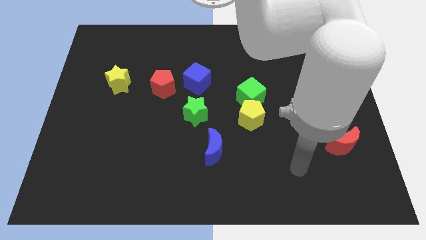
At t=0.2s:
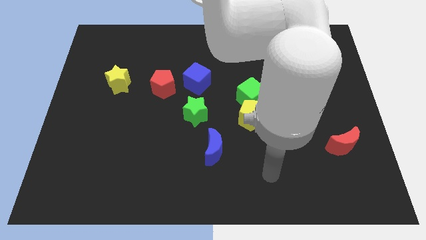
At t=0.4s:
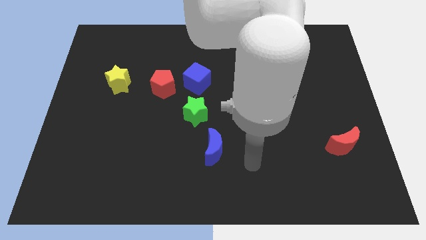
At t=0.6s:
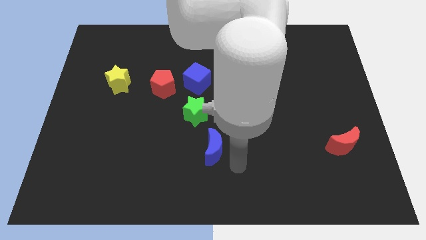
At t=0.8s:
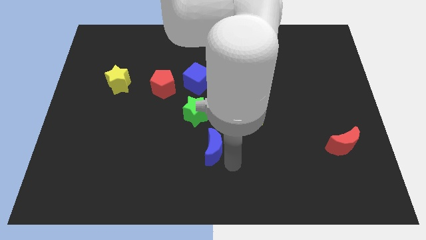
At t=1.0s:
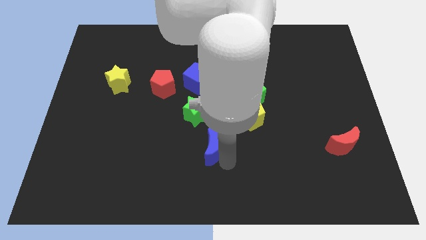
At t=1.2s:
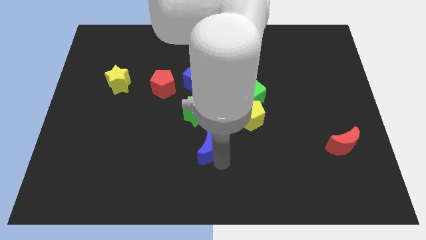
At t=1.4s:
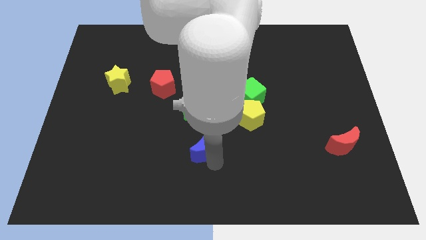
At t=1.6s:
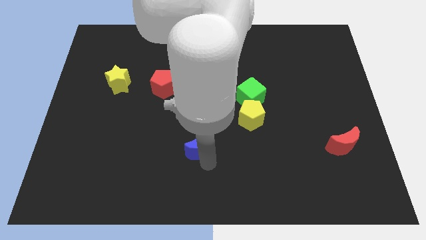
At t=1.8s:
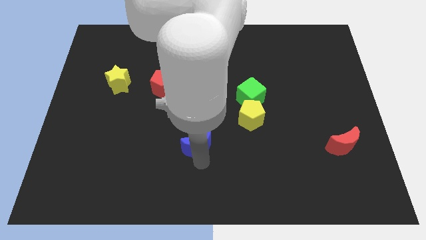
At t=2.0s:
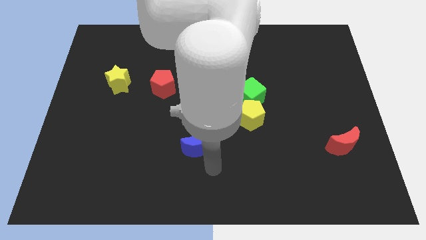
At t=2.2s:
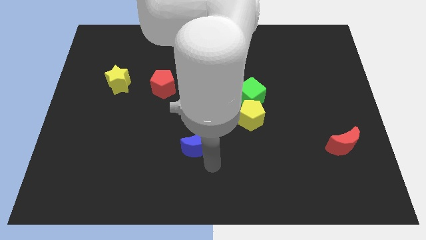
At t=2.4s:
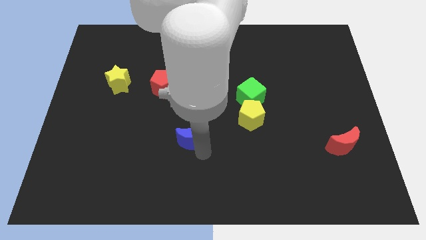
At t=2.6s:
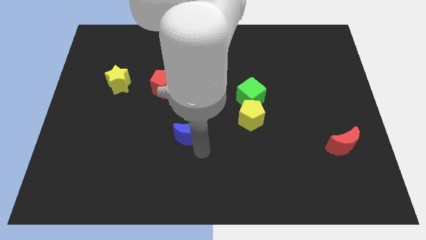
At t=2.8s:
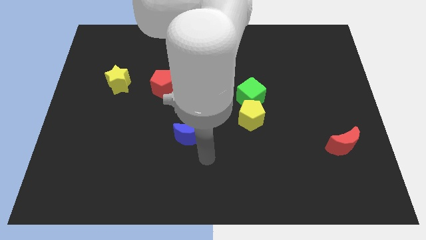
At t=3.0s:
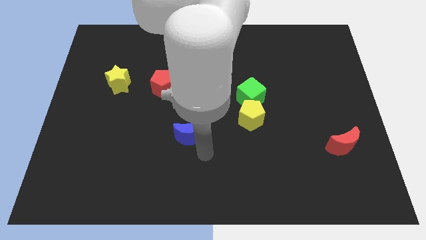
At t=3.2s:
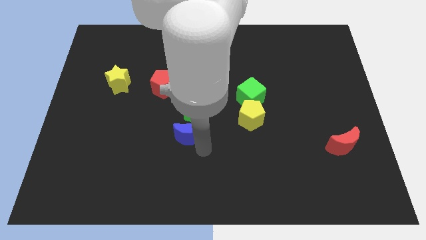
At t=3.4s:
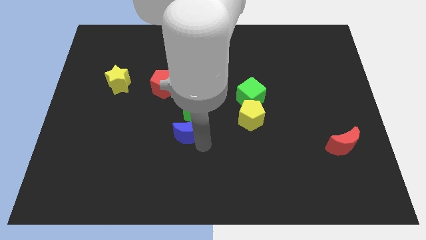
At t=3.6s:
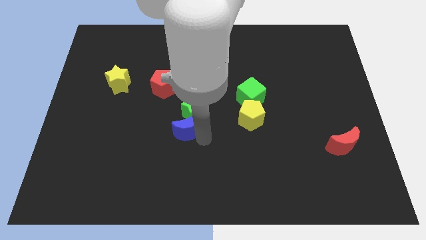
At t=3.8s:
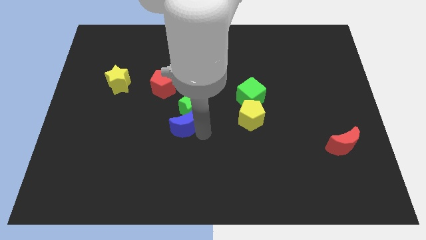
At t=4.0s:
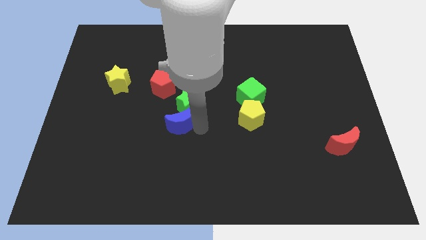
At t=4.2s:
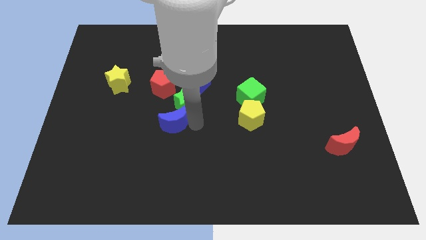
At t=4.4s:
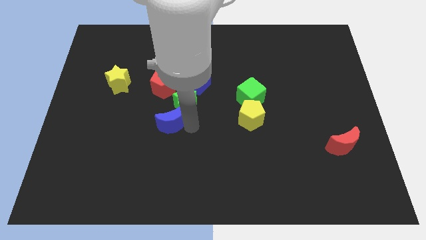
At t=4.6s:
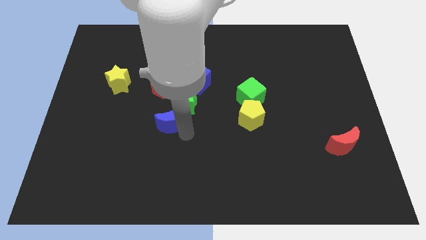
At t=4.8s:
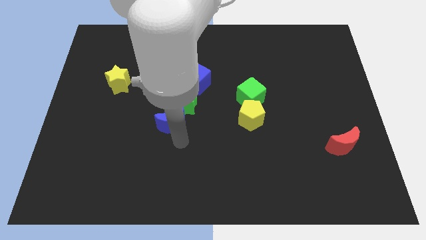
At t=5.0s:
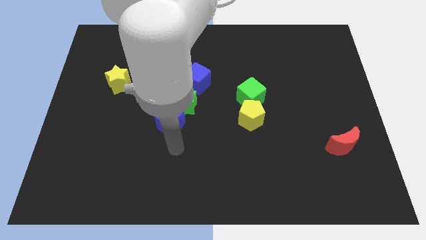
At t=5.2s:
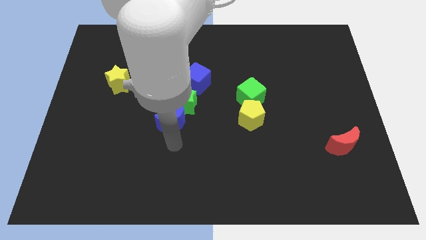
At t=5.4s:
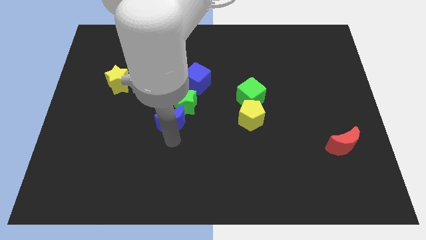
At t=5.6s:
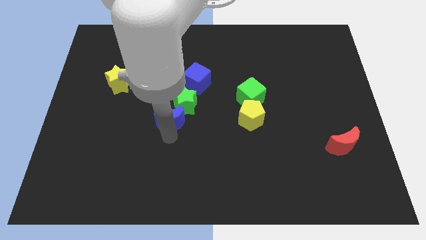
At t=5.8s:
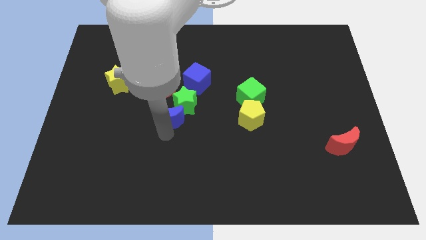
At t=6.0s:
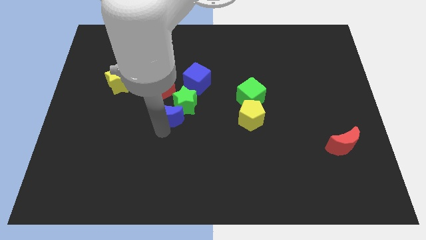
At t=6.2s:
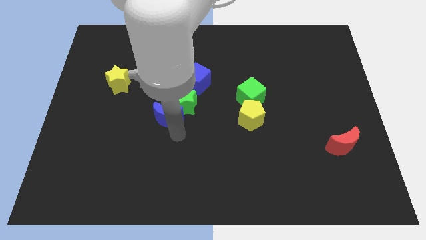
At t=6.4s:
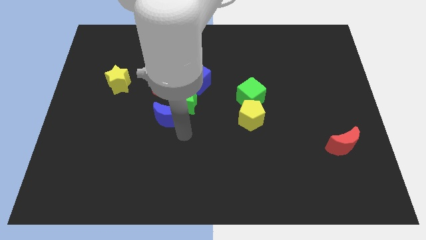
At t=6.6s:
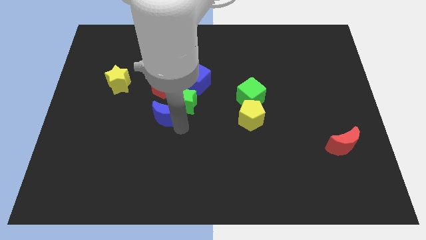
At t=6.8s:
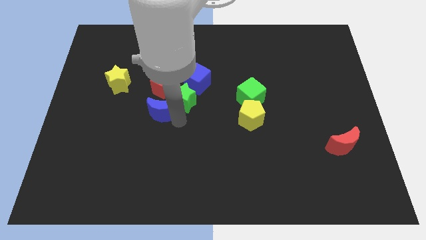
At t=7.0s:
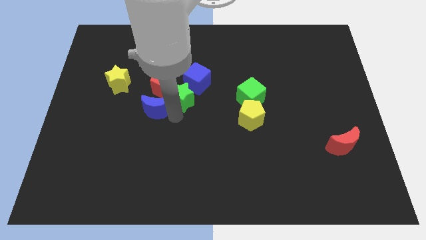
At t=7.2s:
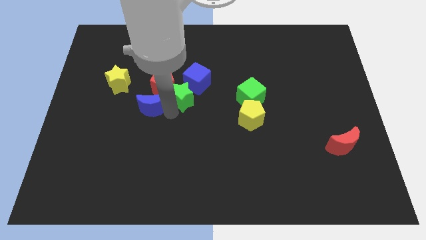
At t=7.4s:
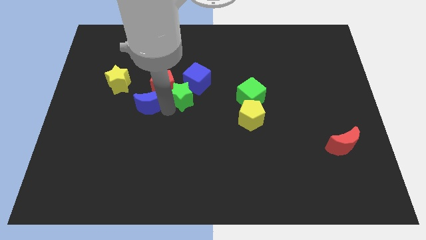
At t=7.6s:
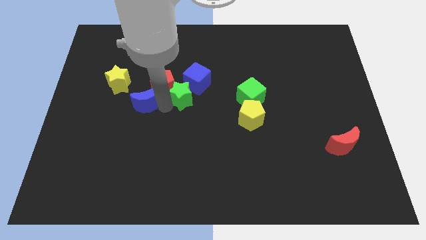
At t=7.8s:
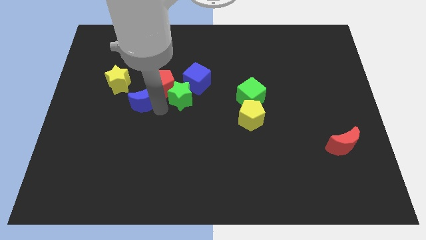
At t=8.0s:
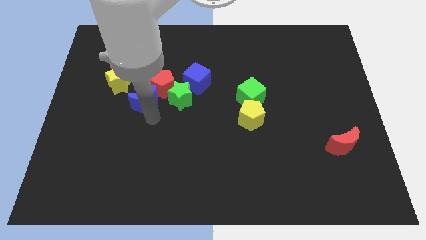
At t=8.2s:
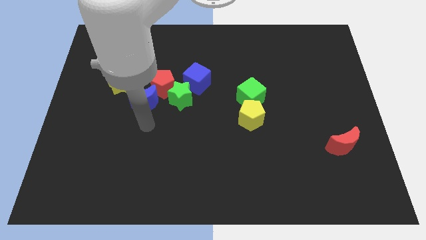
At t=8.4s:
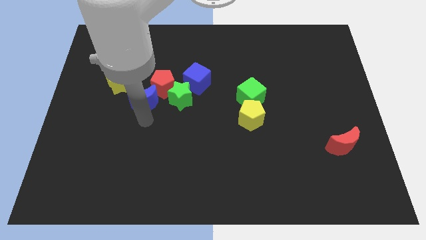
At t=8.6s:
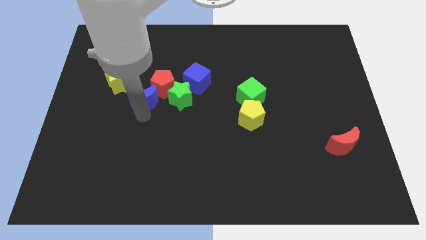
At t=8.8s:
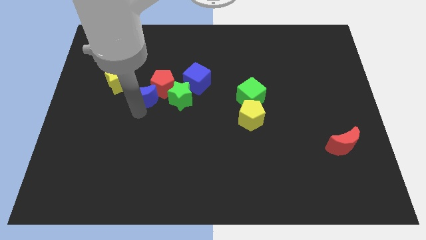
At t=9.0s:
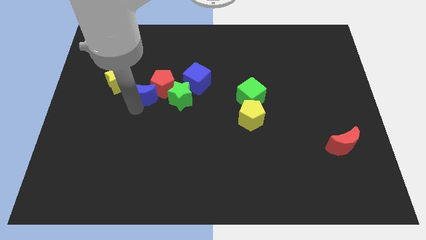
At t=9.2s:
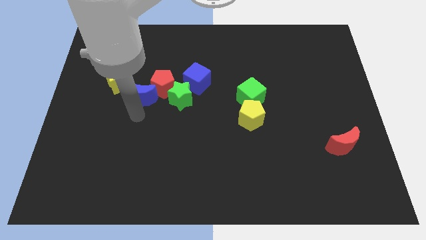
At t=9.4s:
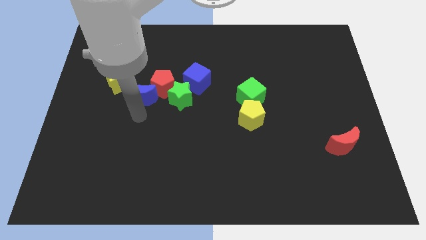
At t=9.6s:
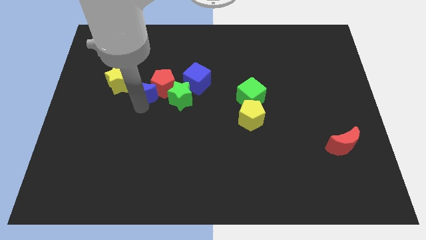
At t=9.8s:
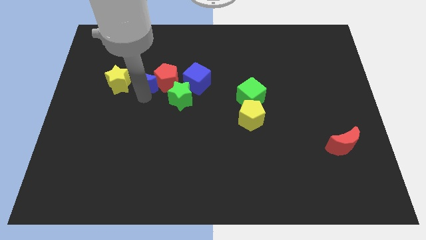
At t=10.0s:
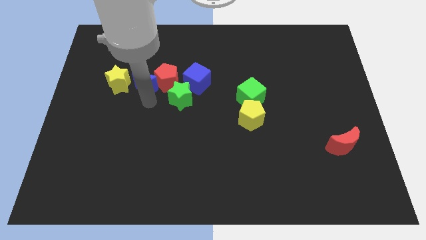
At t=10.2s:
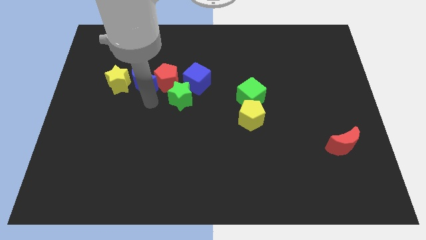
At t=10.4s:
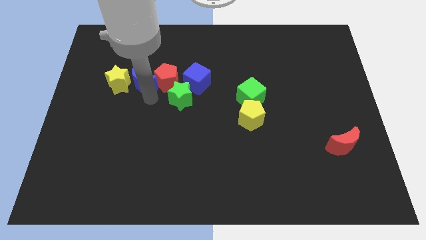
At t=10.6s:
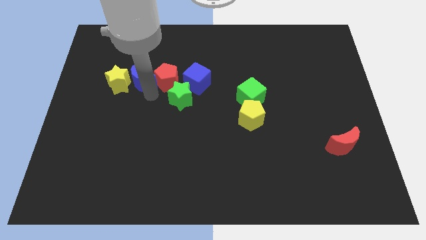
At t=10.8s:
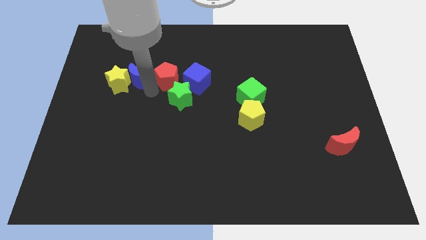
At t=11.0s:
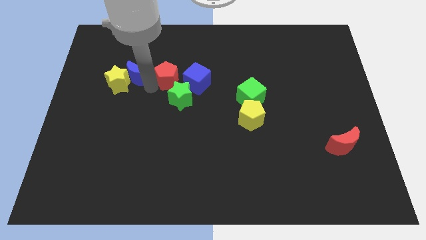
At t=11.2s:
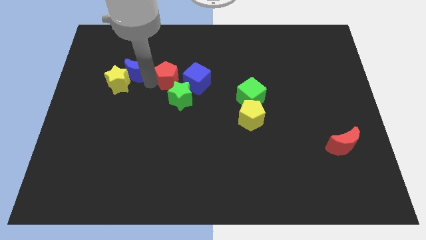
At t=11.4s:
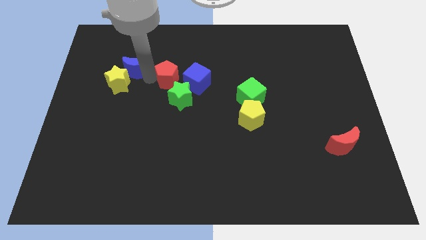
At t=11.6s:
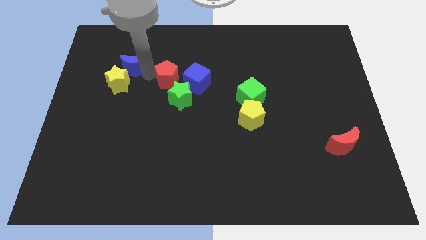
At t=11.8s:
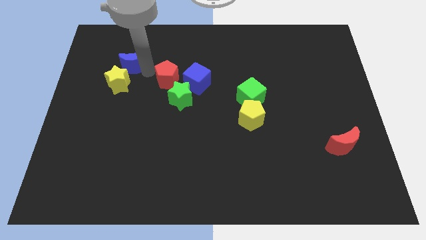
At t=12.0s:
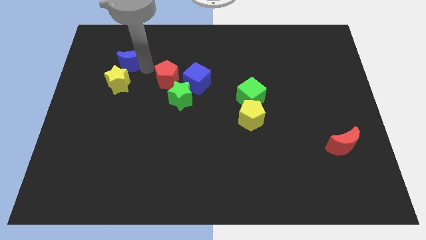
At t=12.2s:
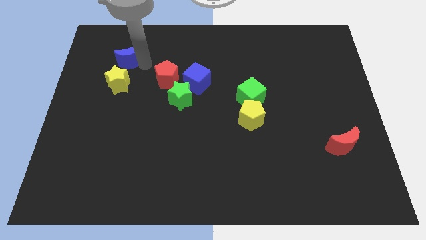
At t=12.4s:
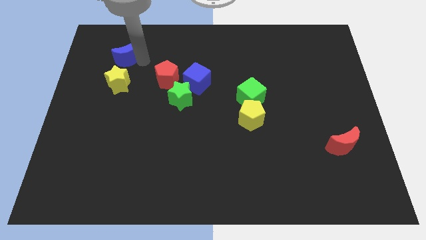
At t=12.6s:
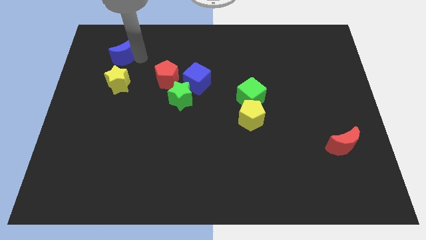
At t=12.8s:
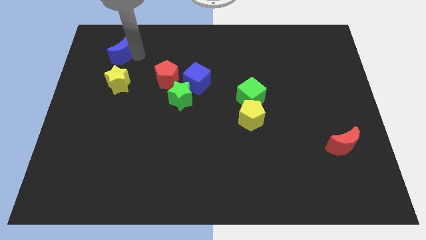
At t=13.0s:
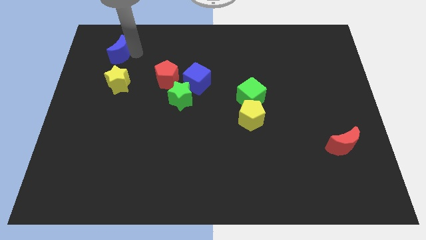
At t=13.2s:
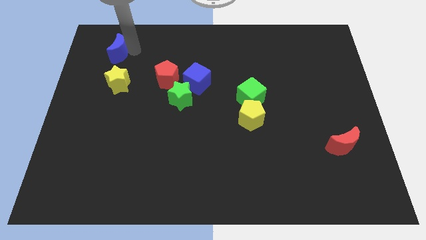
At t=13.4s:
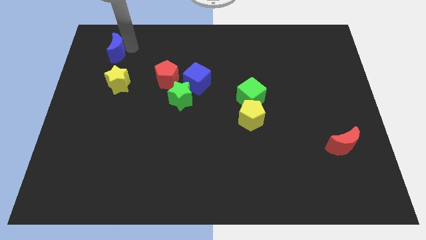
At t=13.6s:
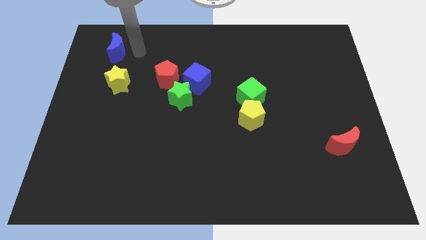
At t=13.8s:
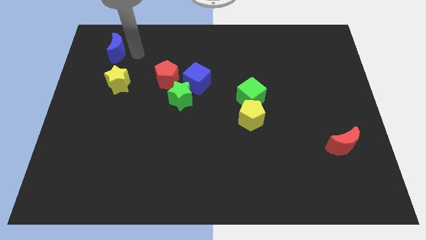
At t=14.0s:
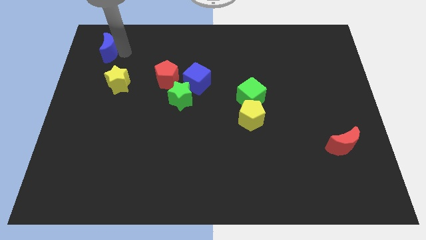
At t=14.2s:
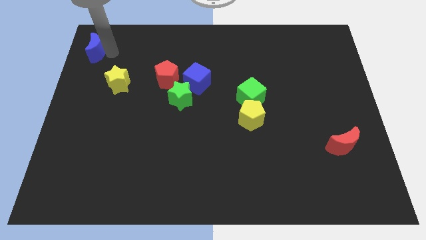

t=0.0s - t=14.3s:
move the blue moon to the top left
